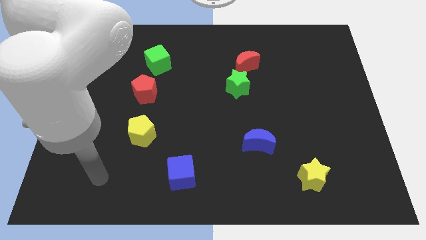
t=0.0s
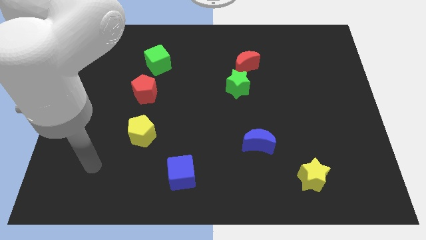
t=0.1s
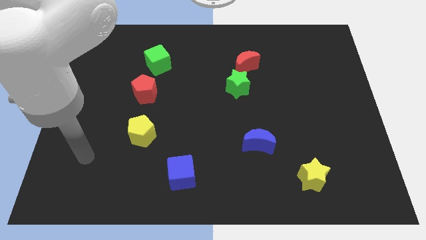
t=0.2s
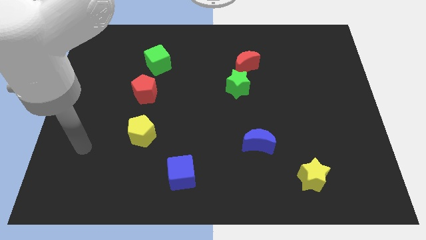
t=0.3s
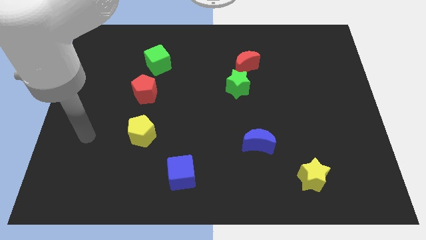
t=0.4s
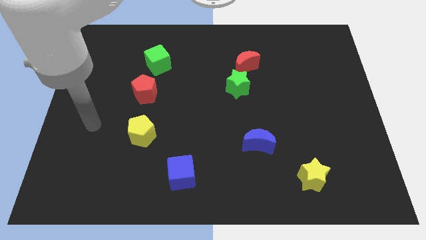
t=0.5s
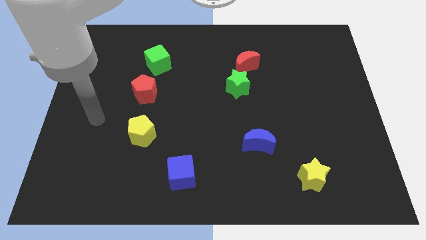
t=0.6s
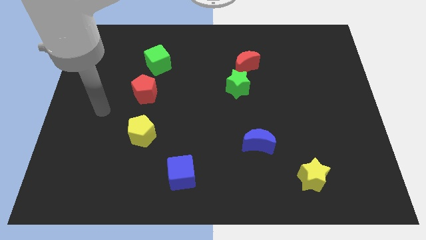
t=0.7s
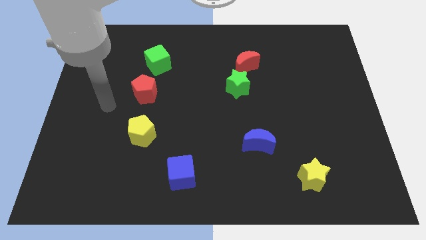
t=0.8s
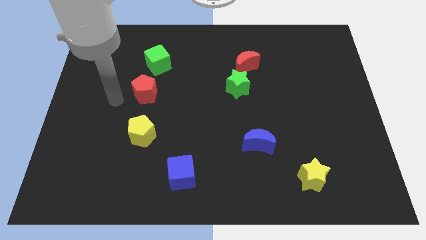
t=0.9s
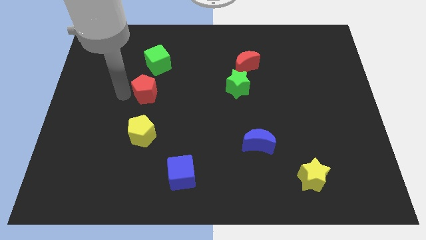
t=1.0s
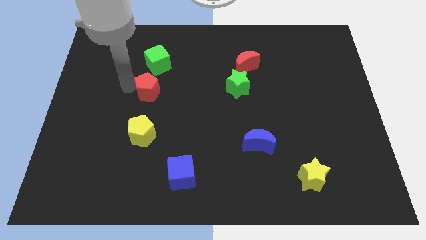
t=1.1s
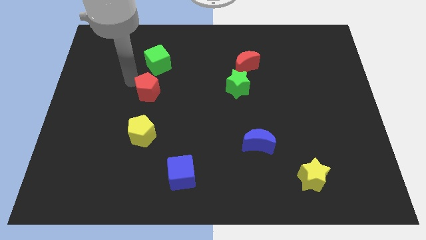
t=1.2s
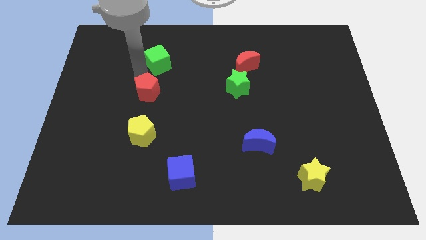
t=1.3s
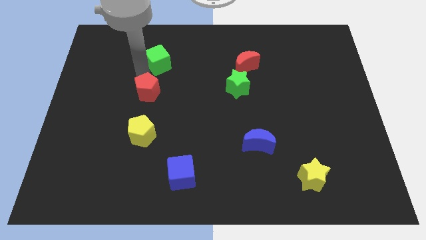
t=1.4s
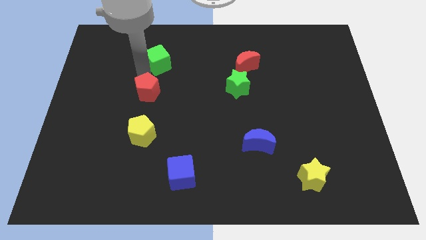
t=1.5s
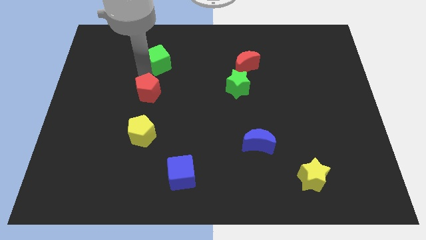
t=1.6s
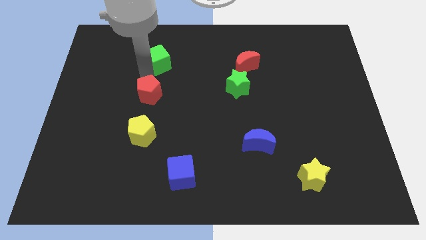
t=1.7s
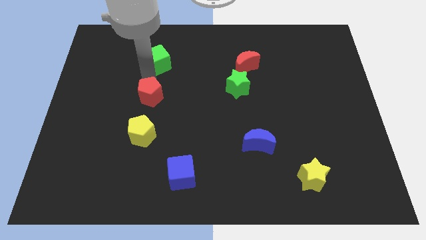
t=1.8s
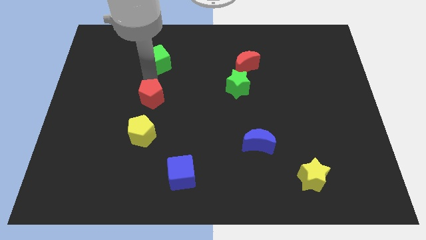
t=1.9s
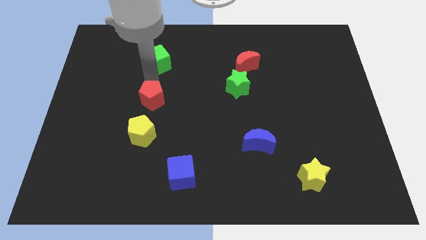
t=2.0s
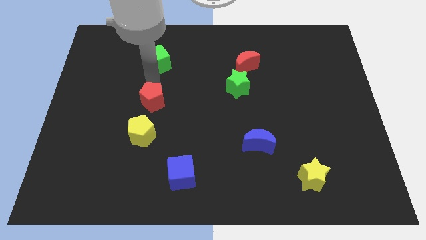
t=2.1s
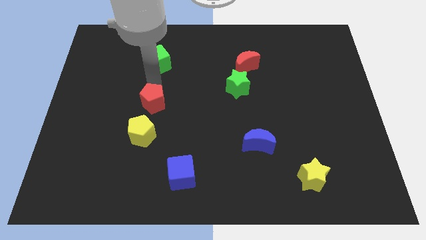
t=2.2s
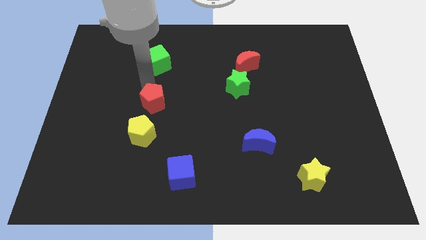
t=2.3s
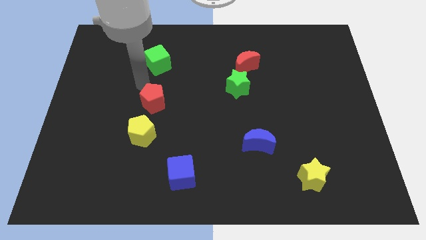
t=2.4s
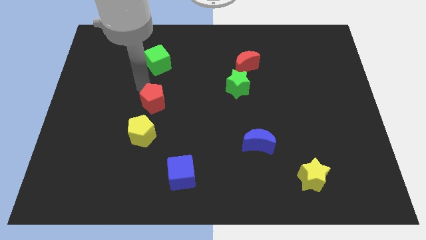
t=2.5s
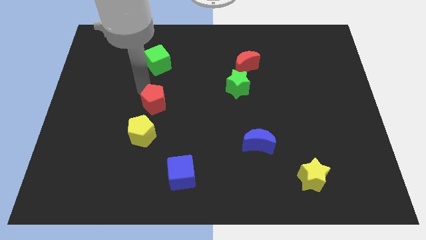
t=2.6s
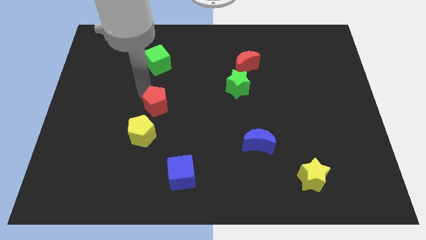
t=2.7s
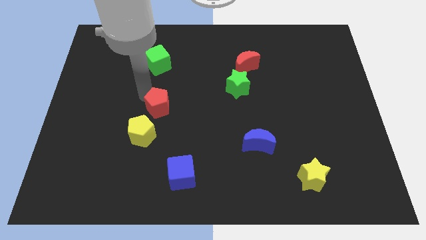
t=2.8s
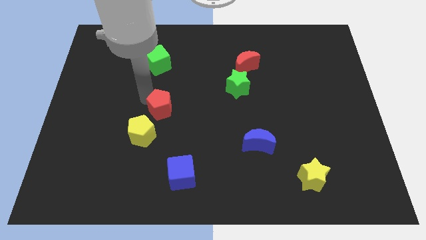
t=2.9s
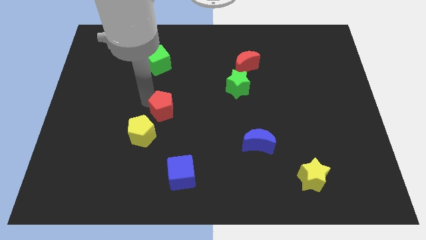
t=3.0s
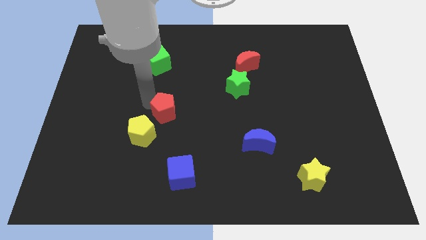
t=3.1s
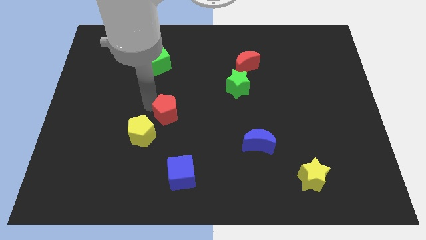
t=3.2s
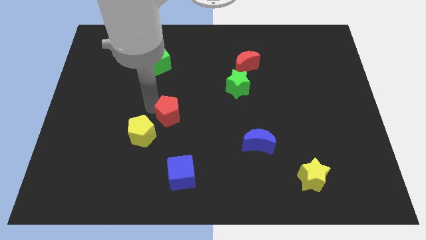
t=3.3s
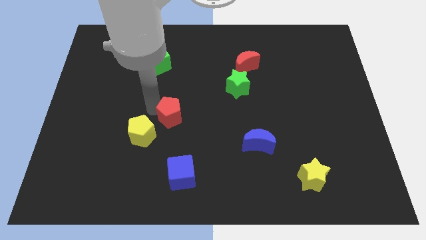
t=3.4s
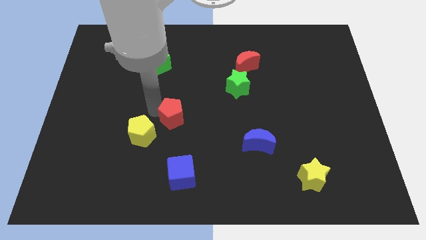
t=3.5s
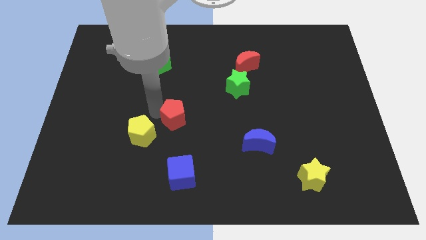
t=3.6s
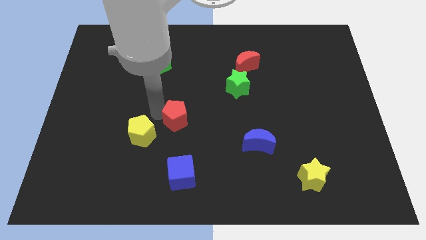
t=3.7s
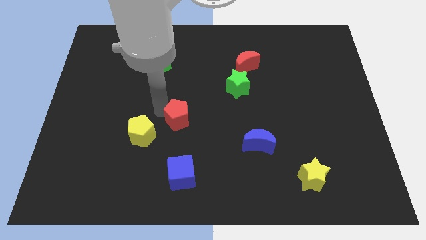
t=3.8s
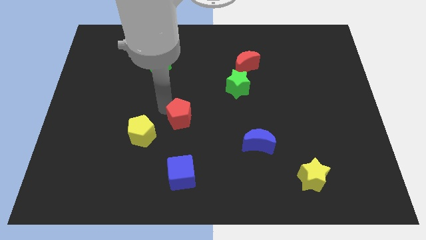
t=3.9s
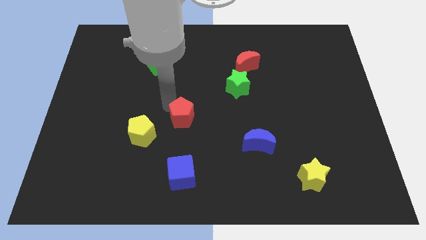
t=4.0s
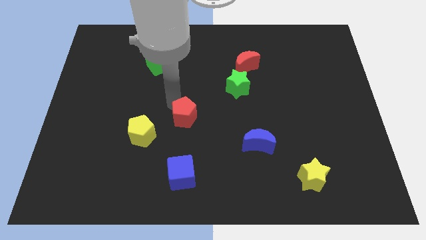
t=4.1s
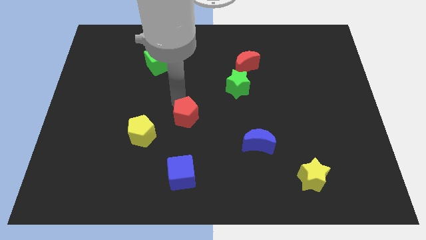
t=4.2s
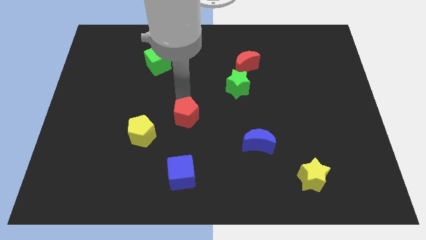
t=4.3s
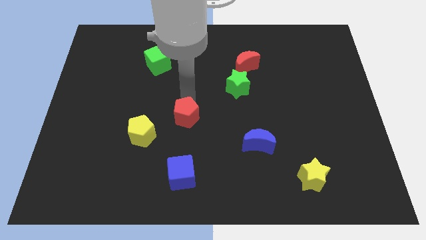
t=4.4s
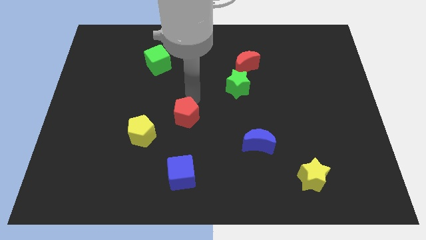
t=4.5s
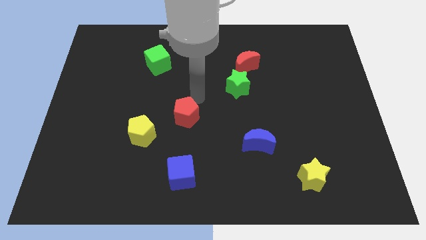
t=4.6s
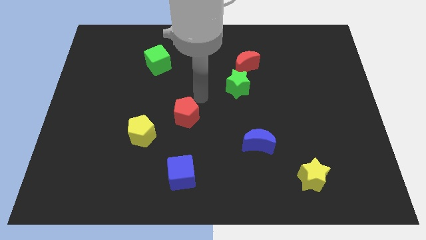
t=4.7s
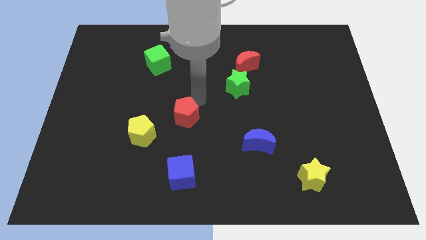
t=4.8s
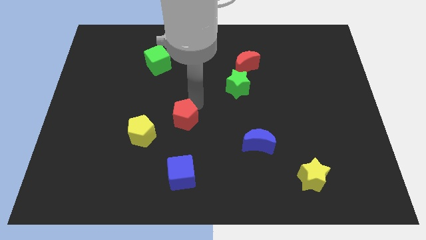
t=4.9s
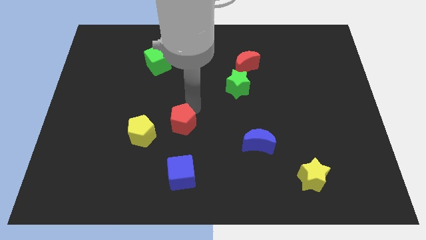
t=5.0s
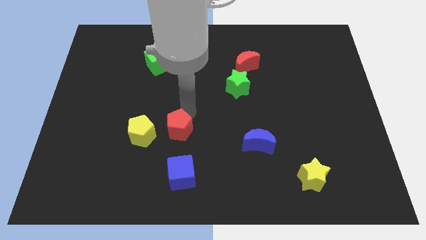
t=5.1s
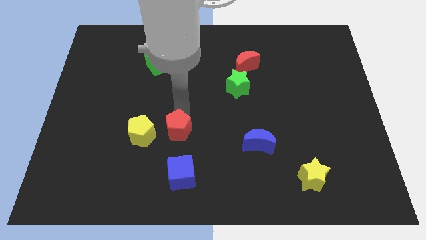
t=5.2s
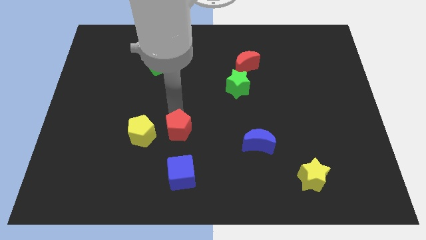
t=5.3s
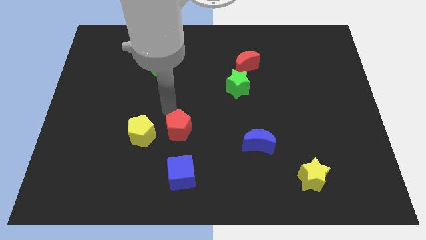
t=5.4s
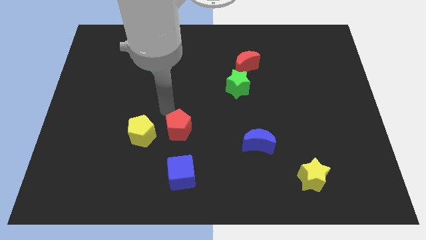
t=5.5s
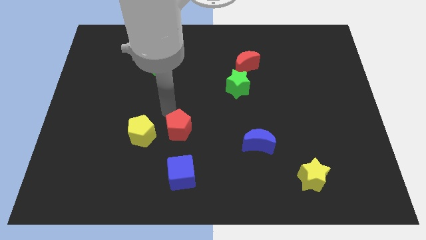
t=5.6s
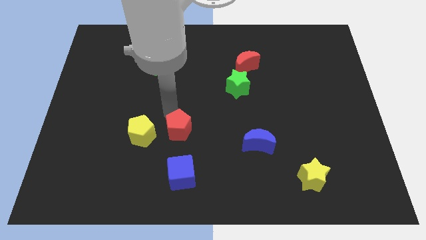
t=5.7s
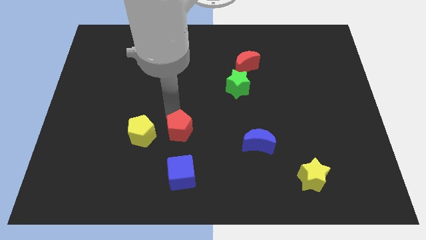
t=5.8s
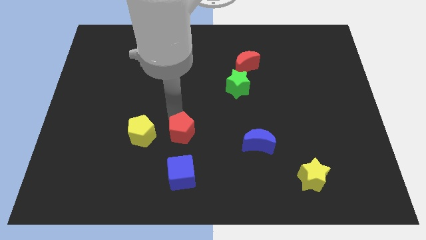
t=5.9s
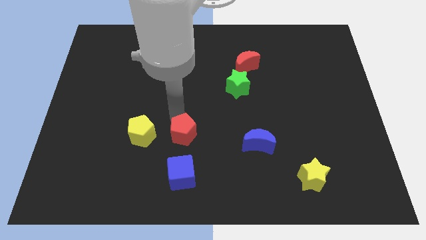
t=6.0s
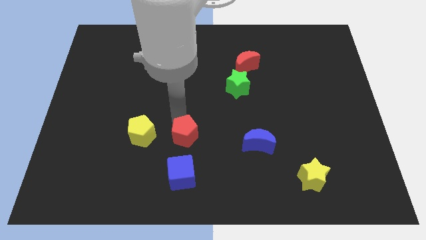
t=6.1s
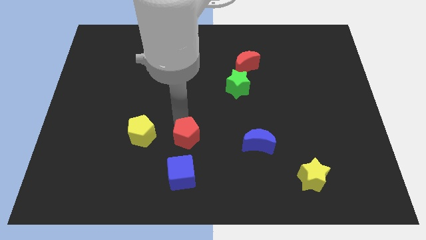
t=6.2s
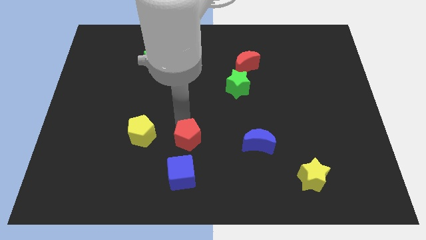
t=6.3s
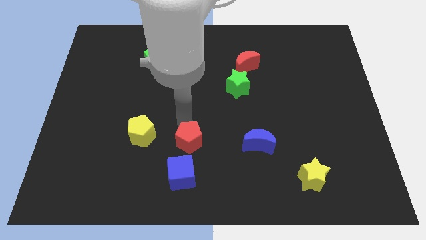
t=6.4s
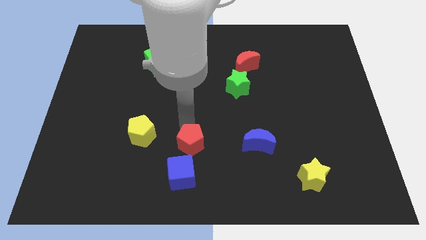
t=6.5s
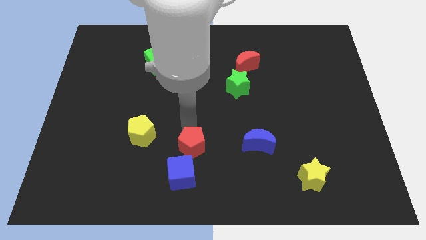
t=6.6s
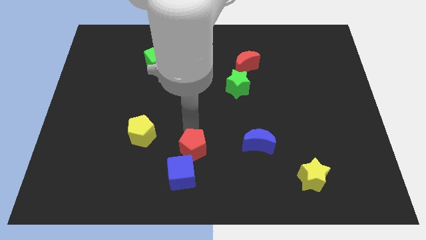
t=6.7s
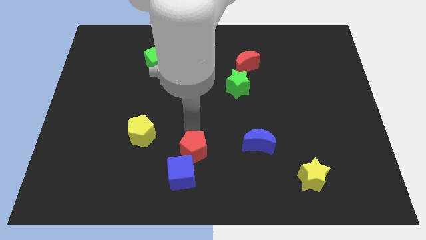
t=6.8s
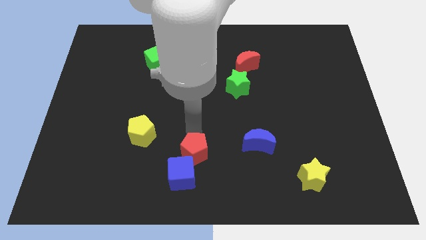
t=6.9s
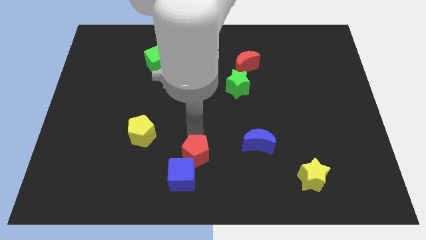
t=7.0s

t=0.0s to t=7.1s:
slide the red pentagon to the bottom side
